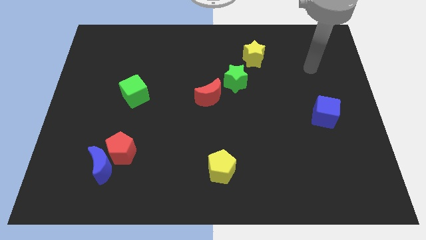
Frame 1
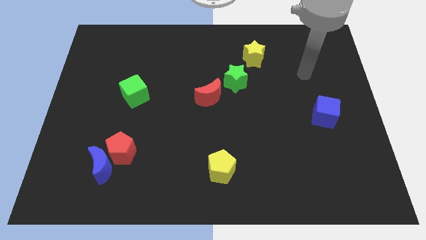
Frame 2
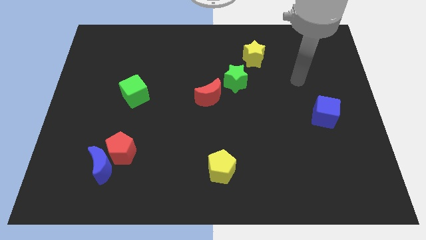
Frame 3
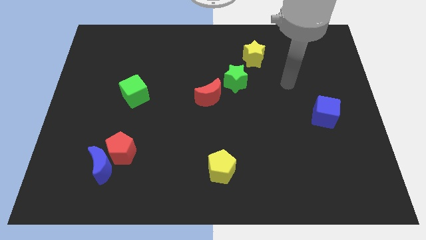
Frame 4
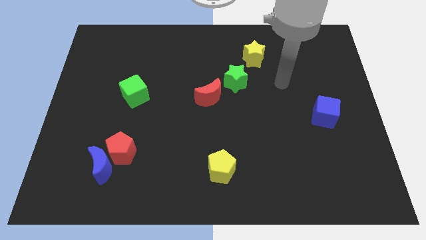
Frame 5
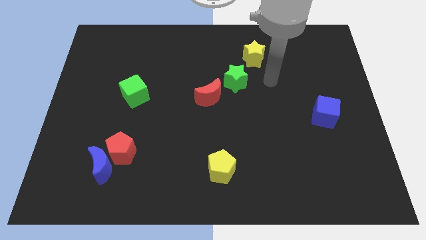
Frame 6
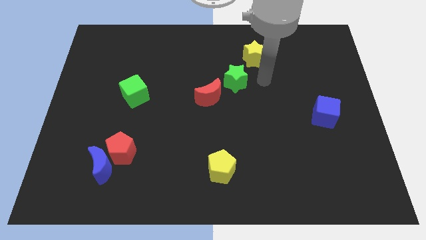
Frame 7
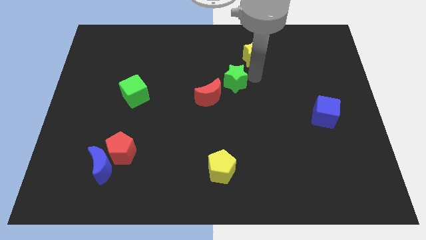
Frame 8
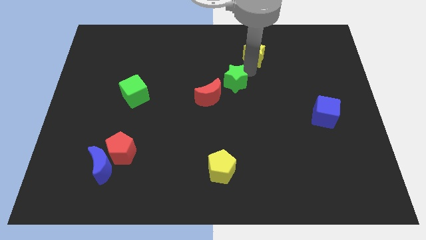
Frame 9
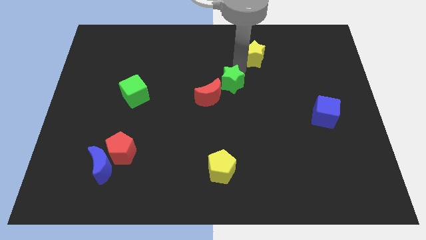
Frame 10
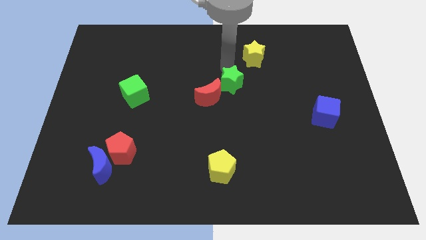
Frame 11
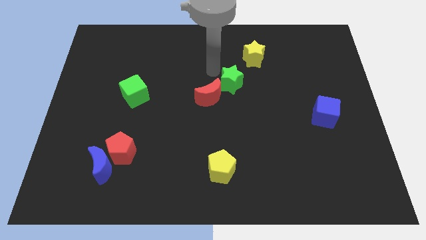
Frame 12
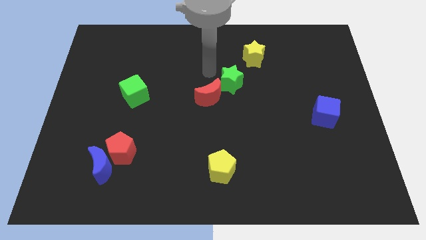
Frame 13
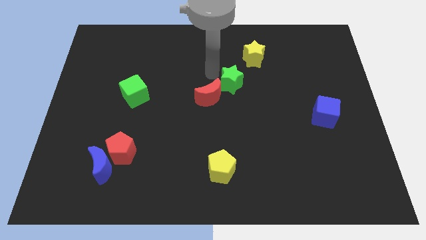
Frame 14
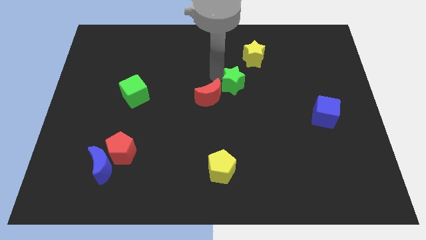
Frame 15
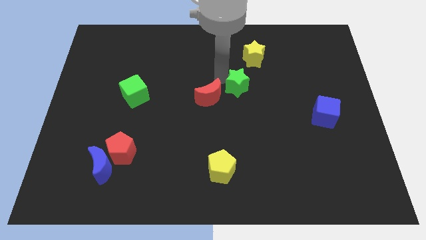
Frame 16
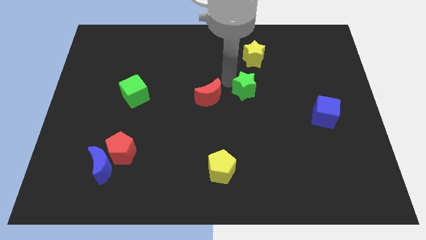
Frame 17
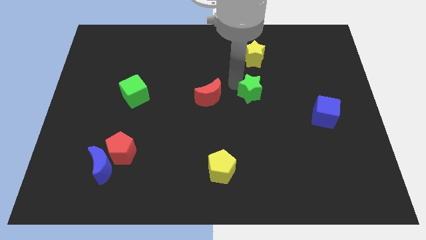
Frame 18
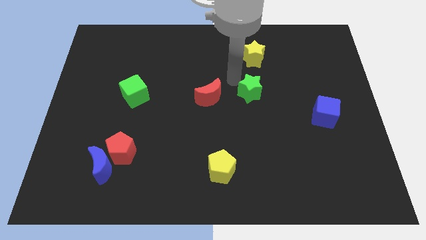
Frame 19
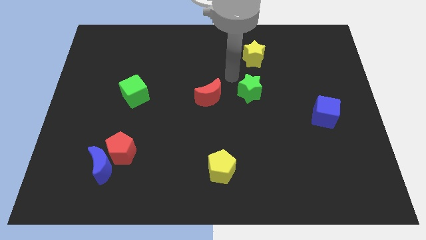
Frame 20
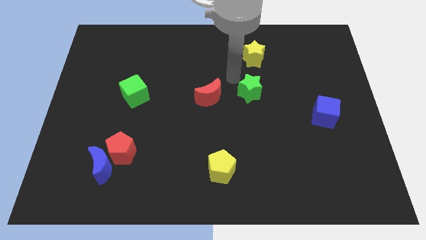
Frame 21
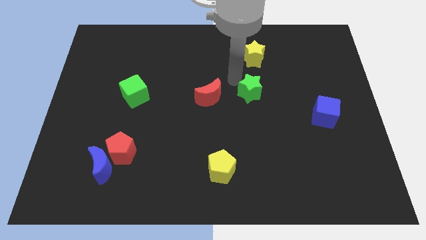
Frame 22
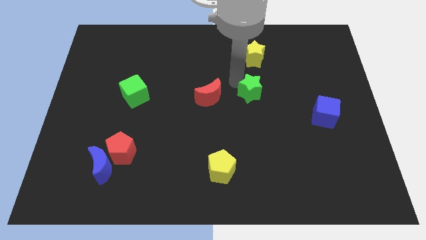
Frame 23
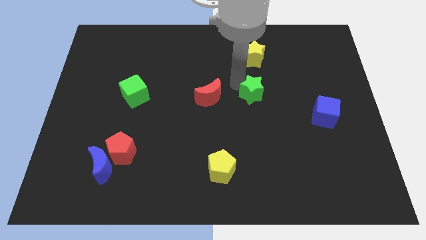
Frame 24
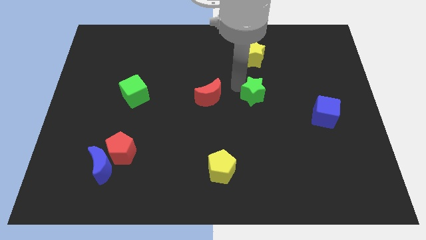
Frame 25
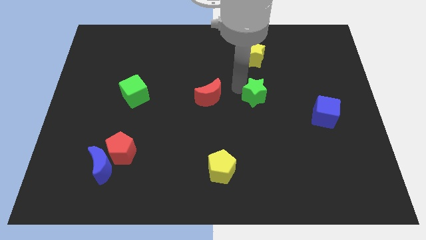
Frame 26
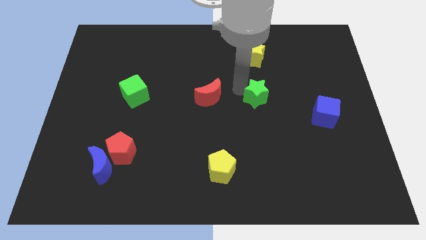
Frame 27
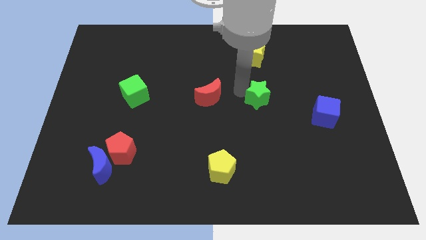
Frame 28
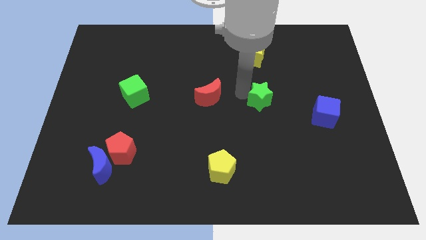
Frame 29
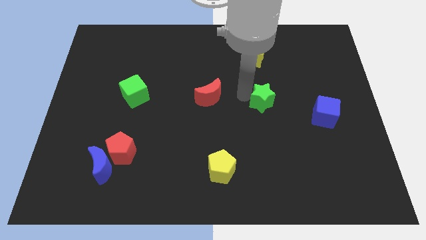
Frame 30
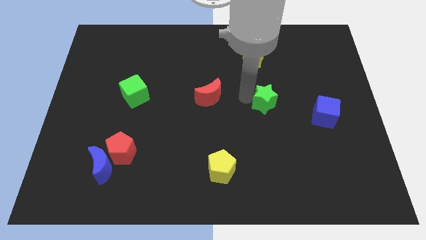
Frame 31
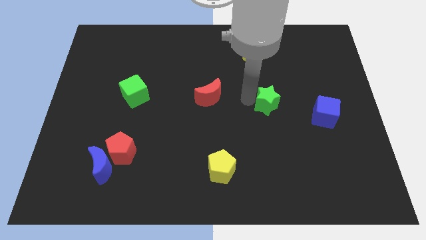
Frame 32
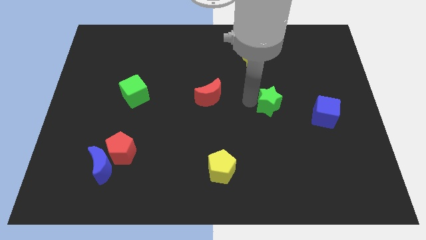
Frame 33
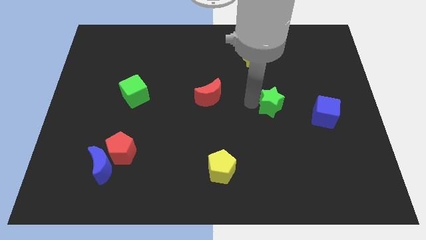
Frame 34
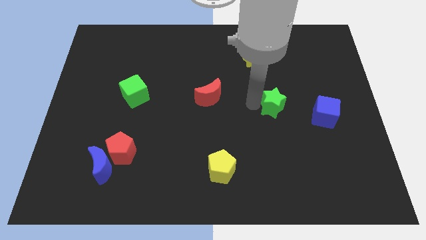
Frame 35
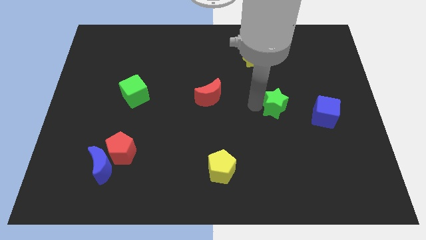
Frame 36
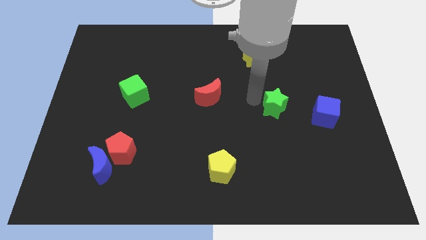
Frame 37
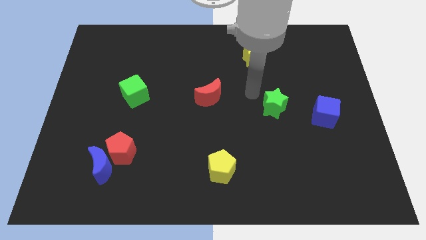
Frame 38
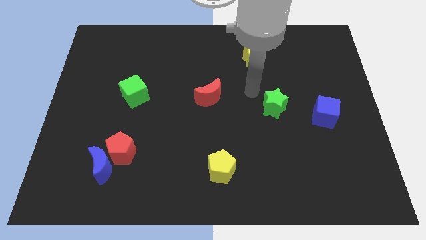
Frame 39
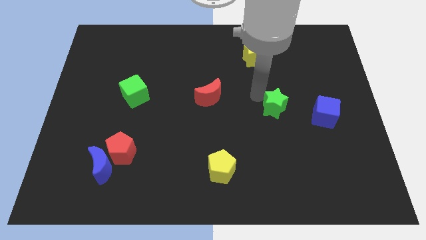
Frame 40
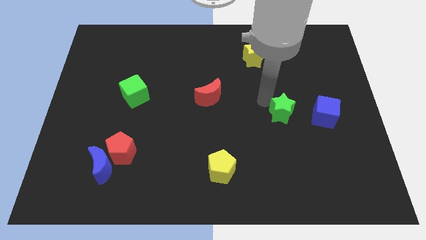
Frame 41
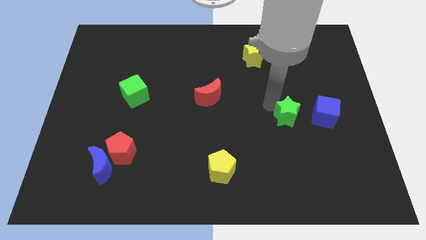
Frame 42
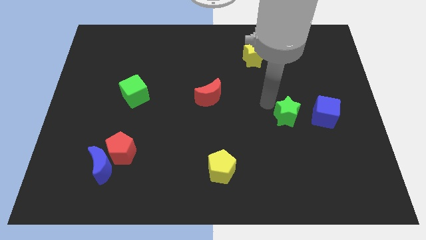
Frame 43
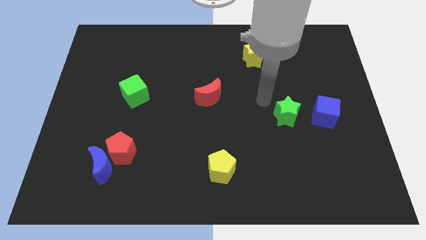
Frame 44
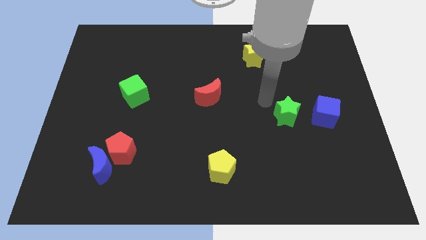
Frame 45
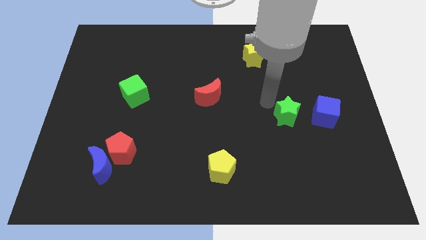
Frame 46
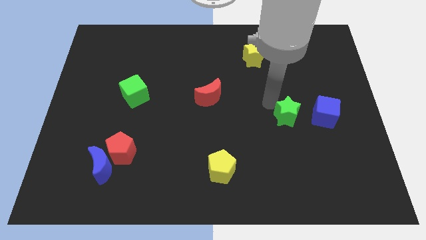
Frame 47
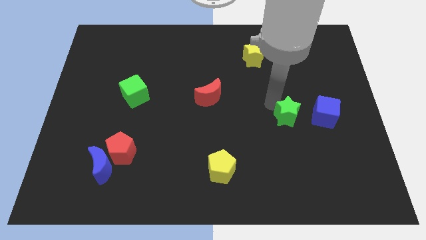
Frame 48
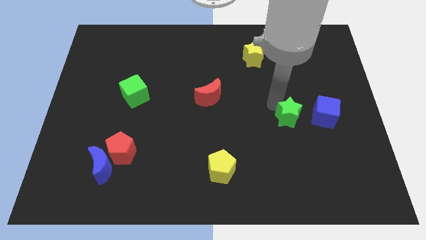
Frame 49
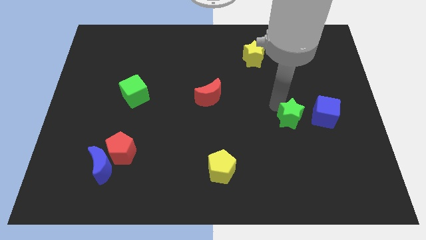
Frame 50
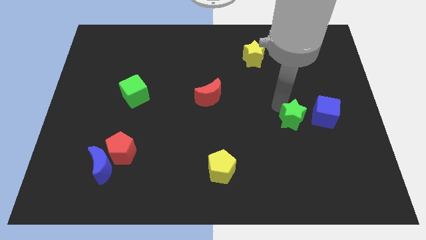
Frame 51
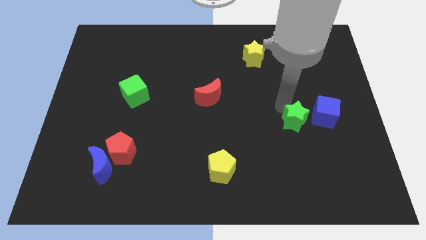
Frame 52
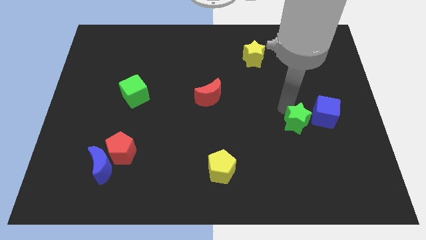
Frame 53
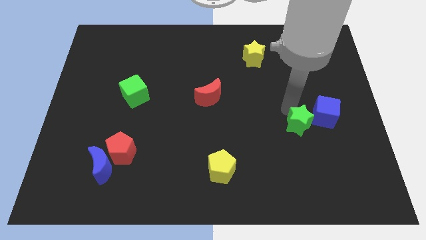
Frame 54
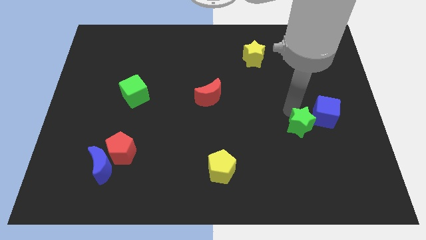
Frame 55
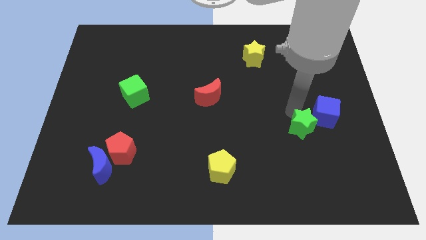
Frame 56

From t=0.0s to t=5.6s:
slide the green star downwards and right diagonally

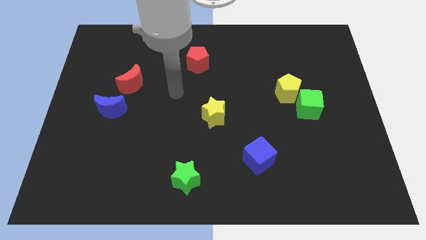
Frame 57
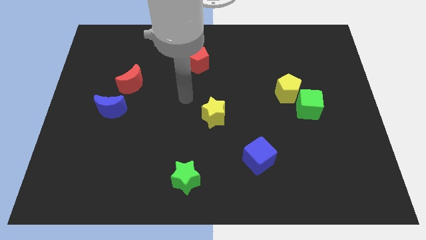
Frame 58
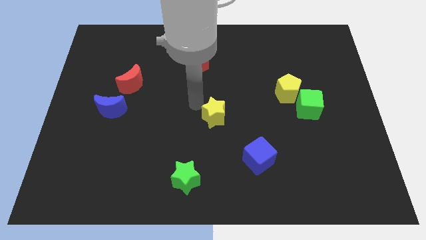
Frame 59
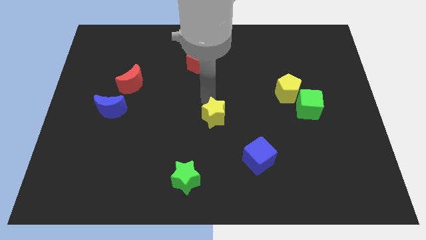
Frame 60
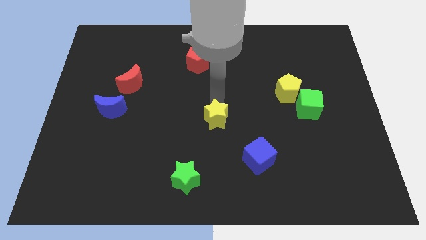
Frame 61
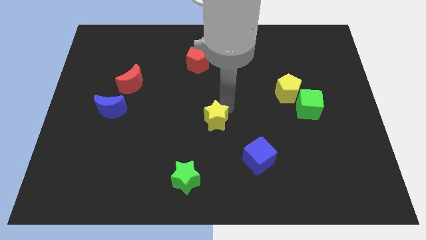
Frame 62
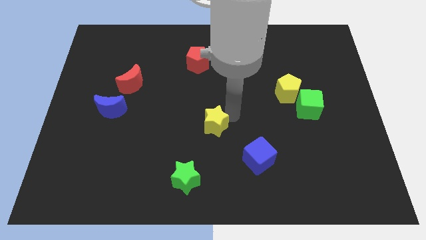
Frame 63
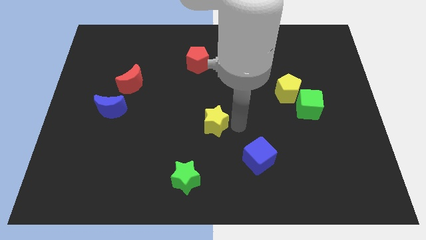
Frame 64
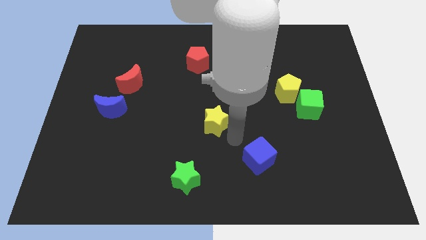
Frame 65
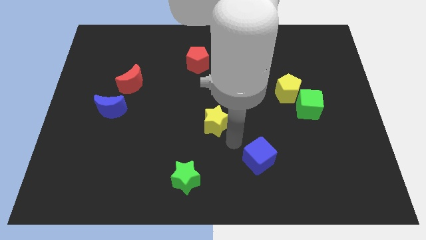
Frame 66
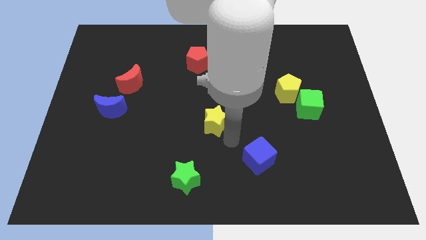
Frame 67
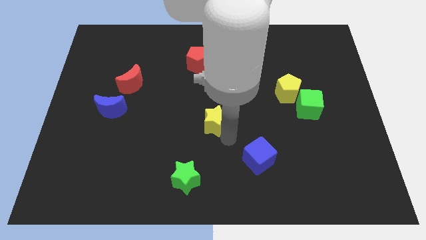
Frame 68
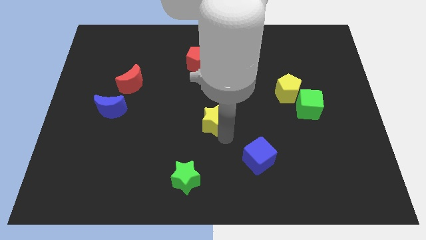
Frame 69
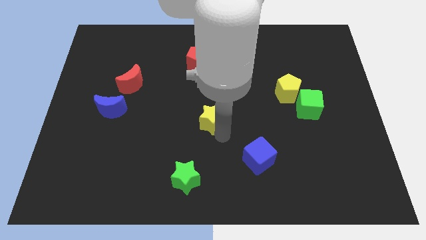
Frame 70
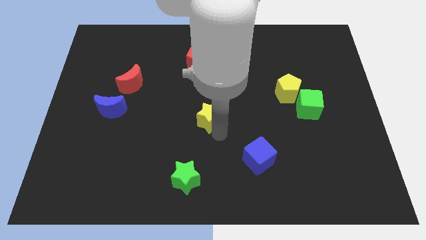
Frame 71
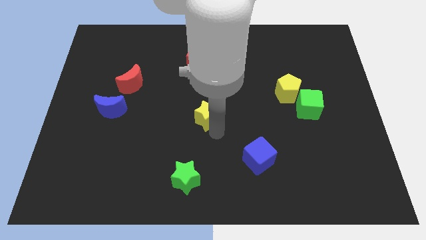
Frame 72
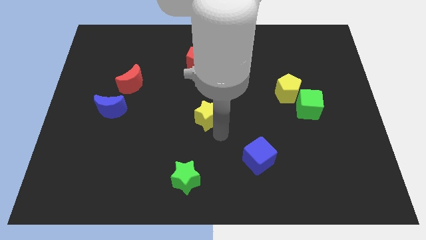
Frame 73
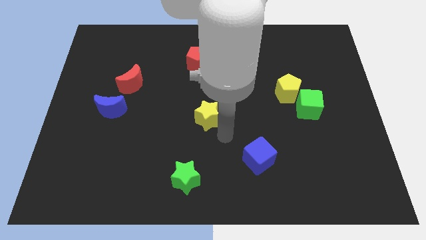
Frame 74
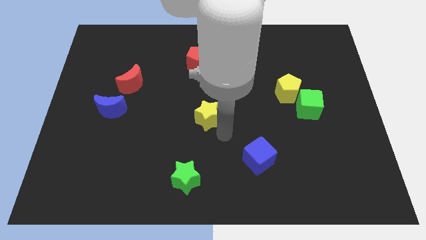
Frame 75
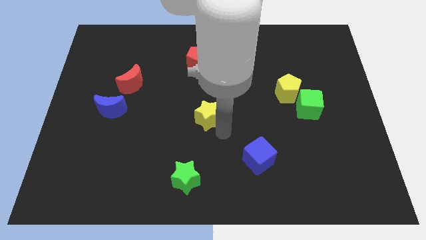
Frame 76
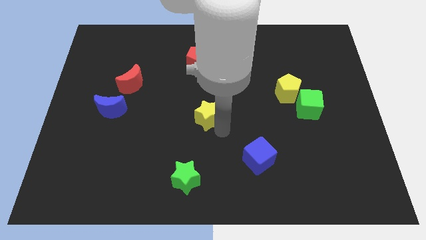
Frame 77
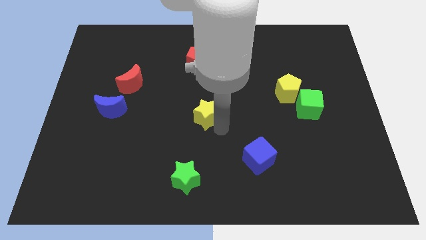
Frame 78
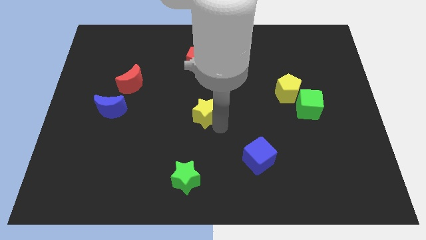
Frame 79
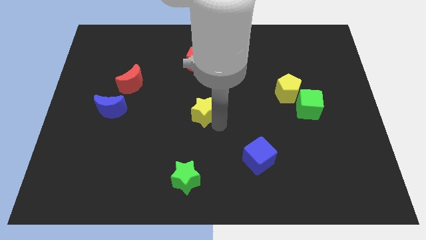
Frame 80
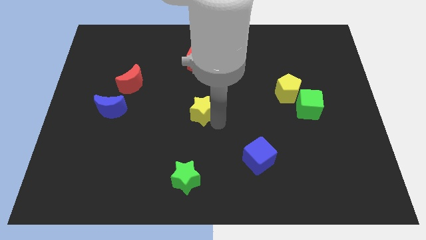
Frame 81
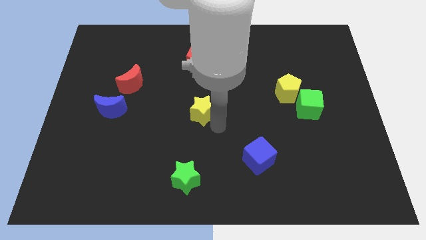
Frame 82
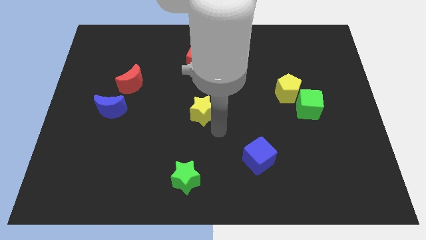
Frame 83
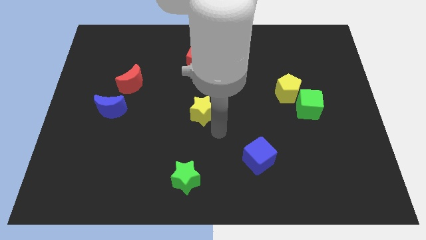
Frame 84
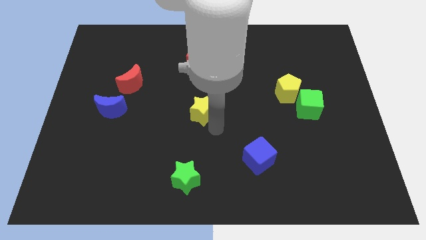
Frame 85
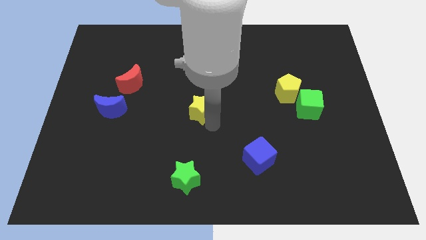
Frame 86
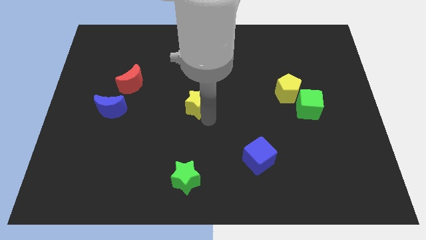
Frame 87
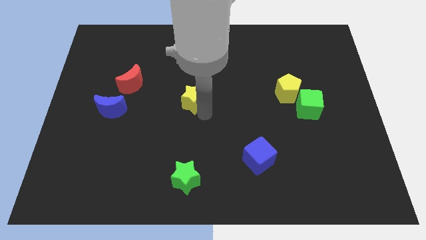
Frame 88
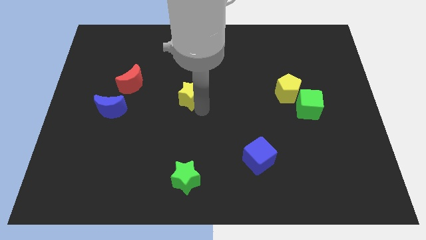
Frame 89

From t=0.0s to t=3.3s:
slide the yellow star a little upwards and to the left
